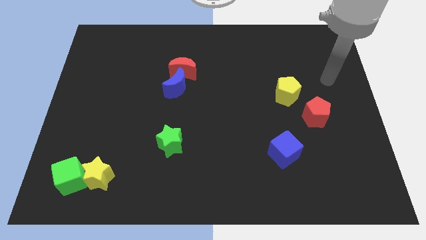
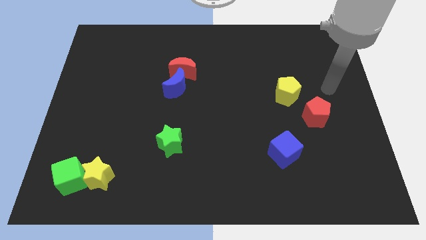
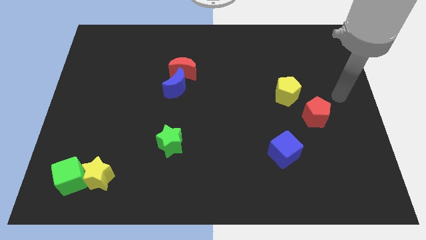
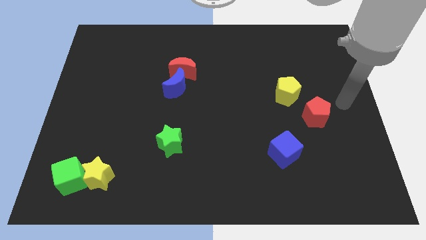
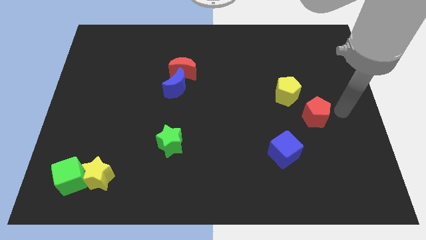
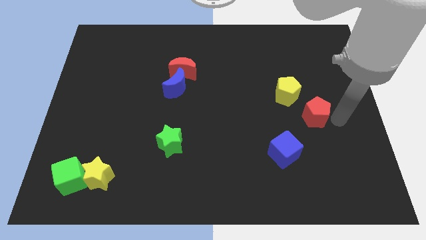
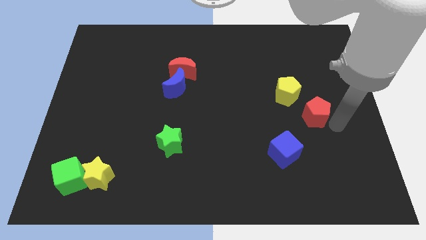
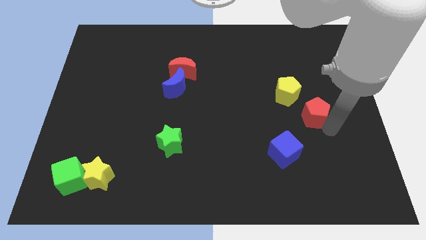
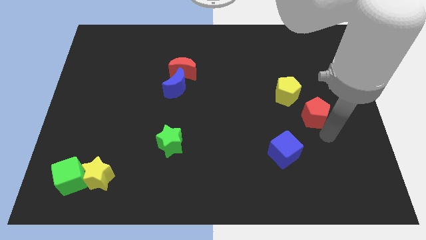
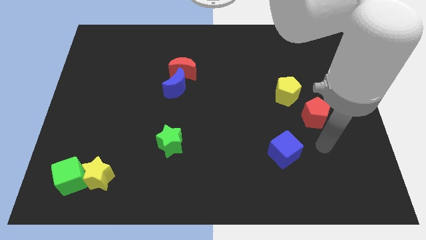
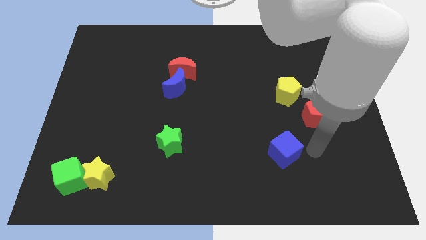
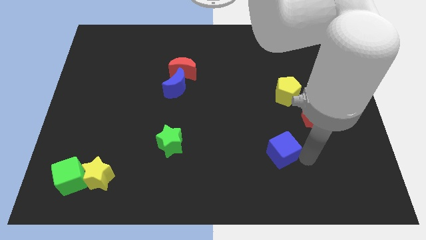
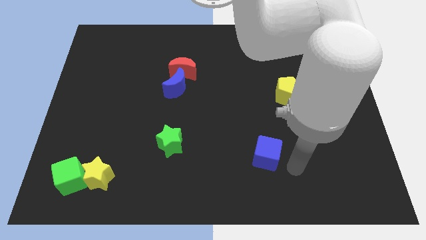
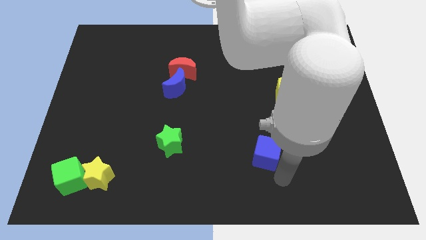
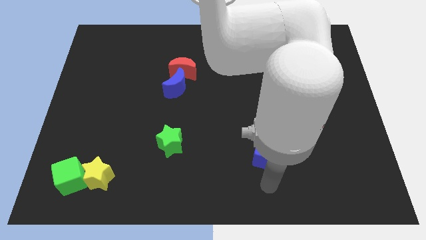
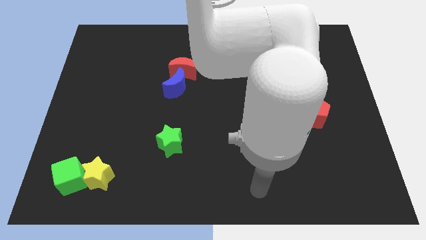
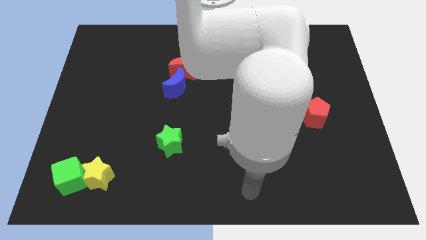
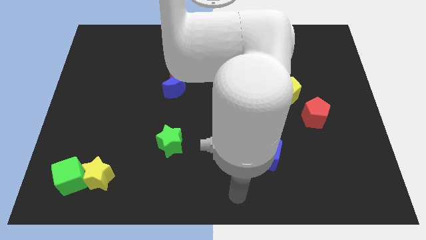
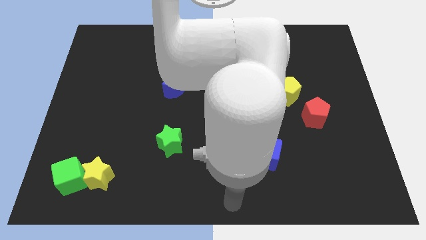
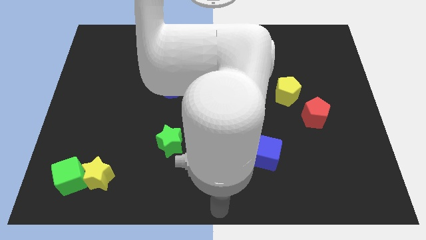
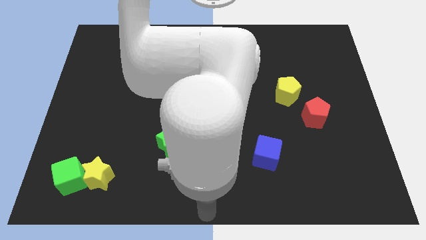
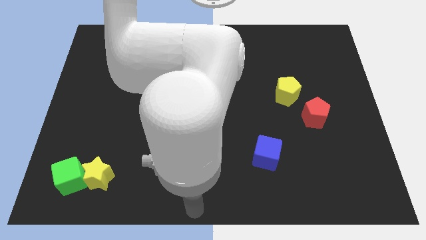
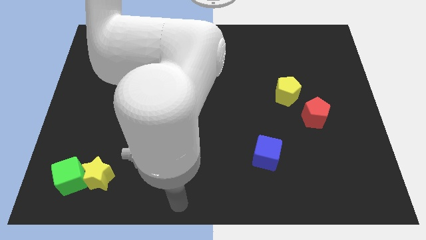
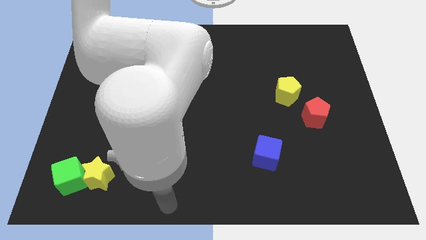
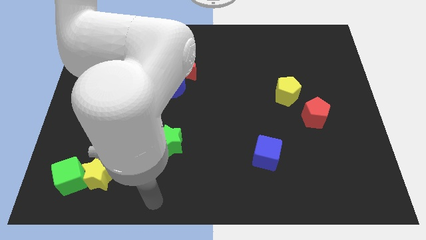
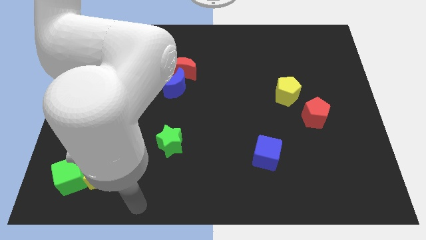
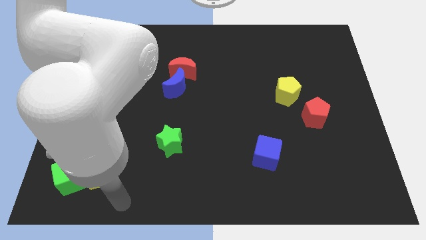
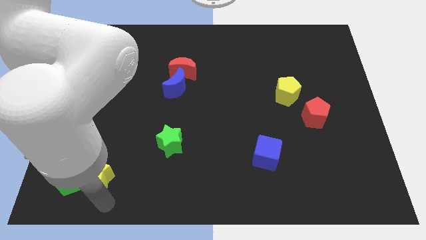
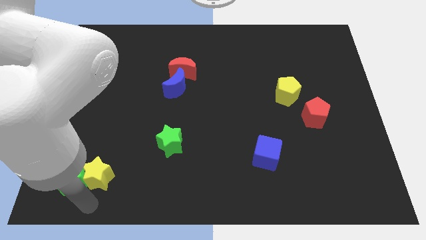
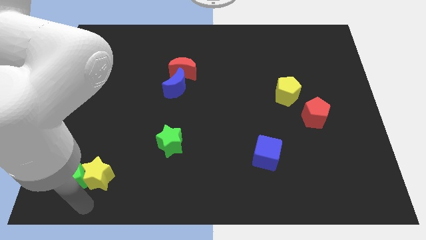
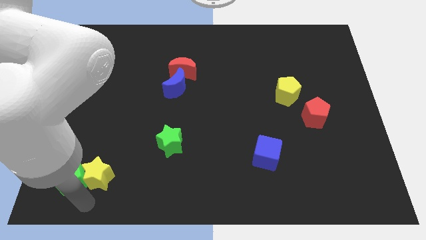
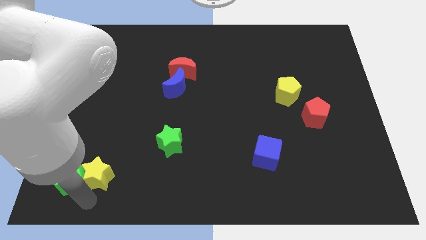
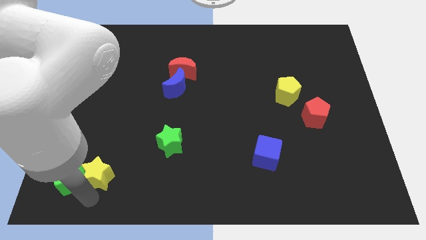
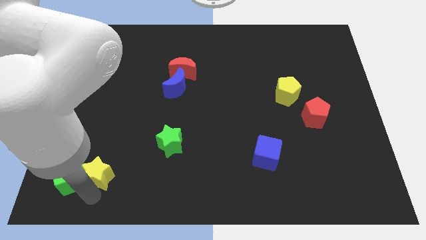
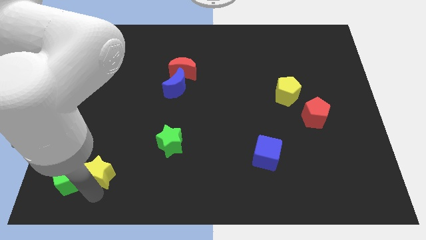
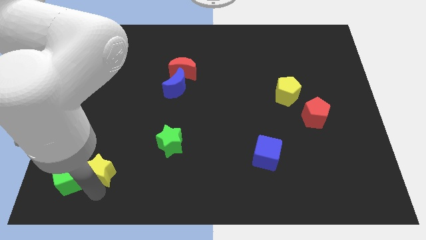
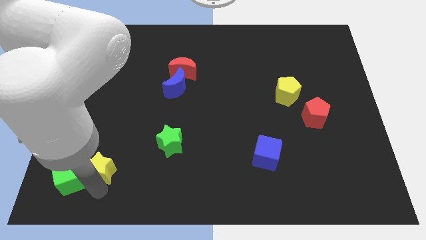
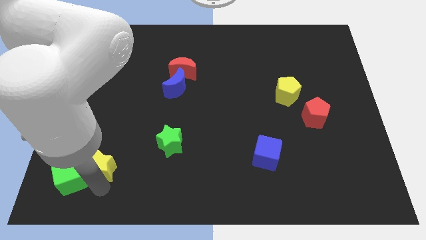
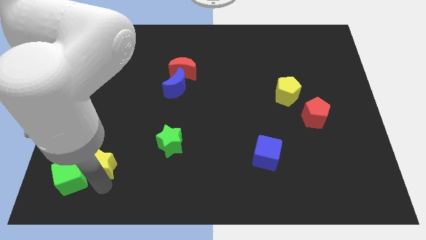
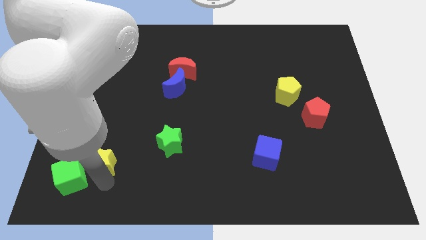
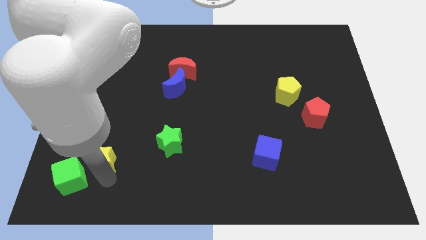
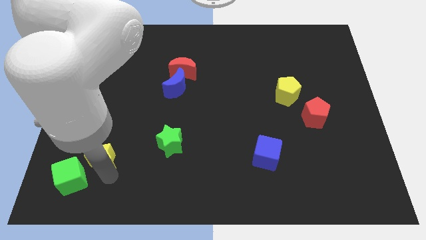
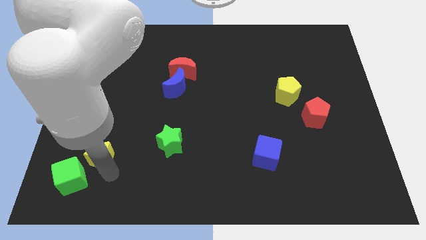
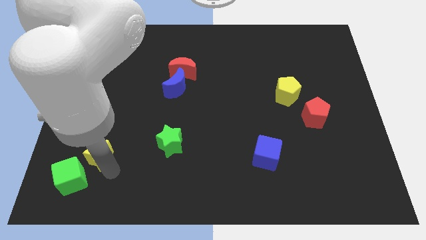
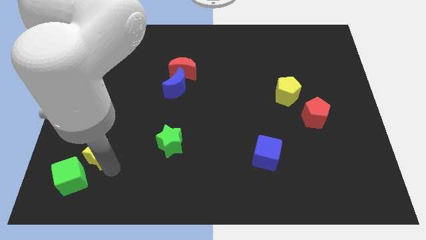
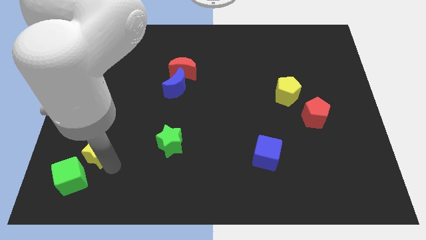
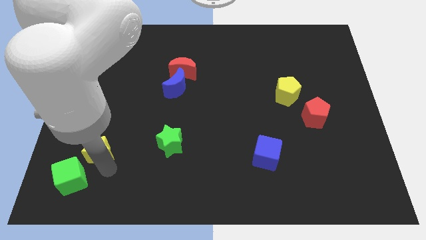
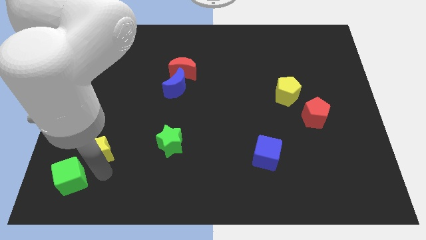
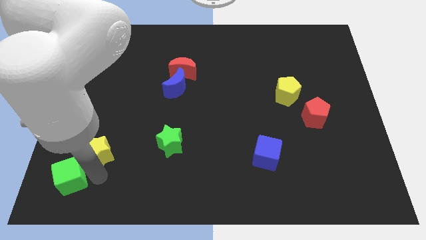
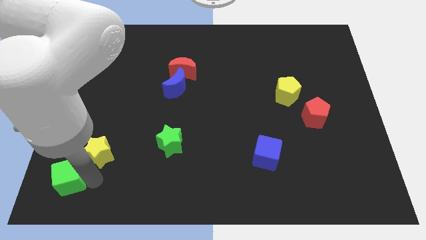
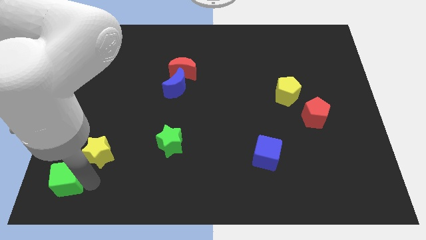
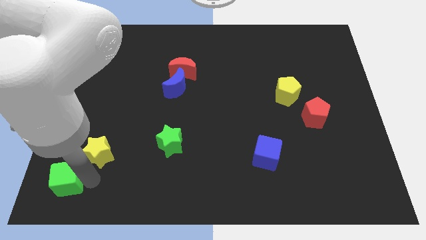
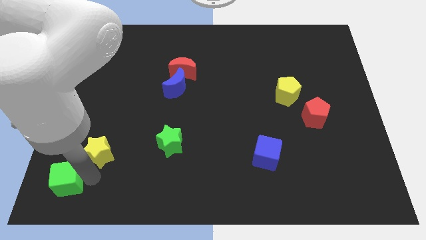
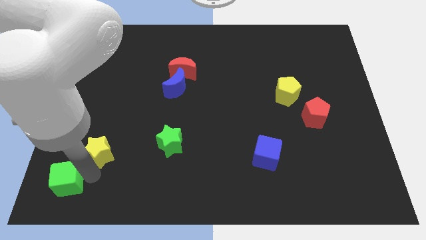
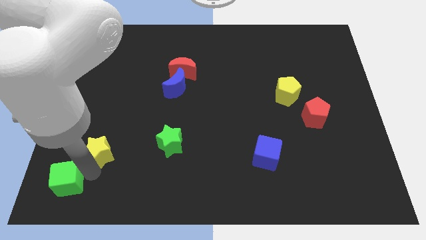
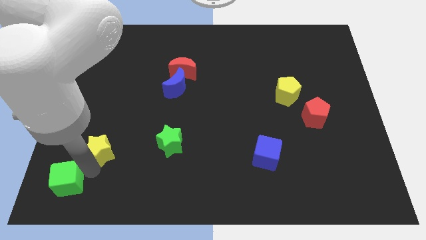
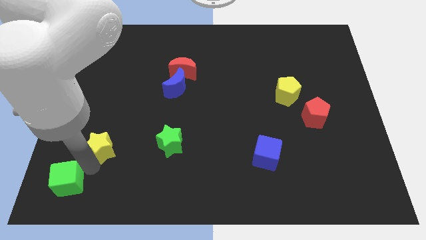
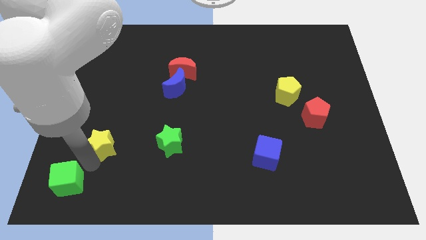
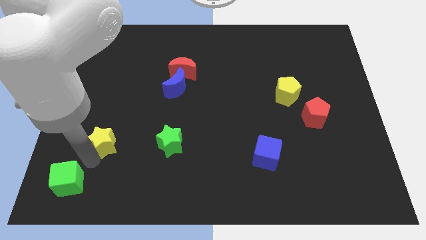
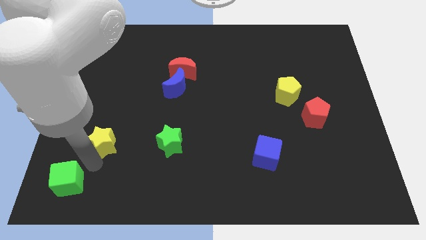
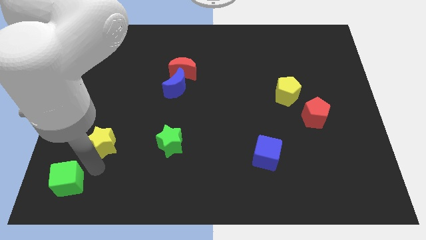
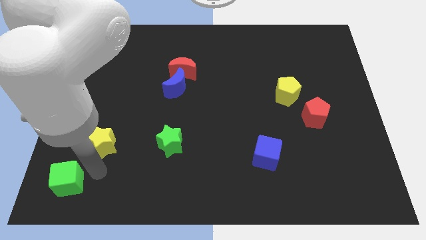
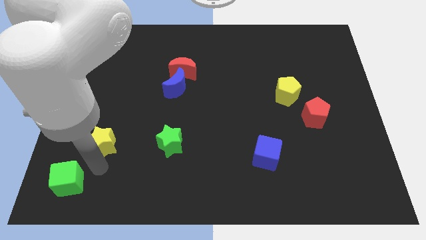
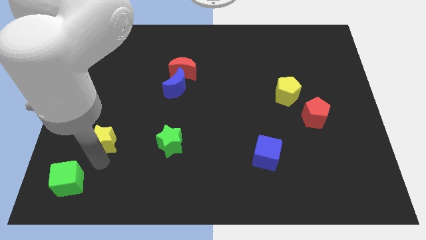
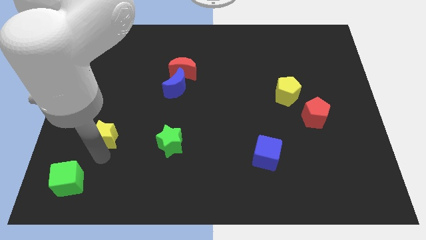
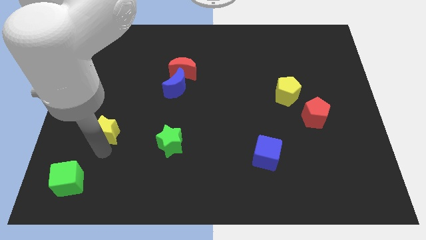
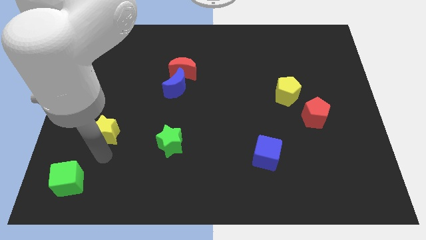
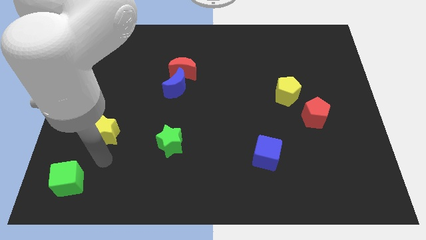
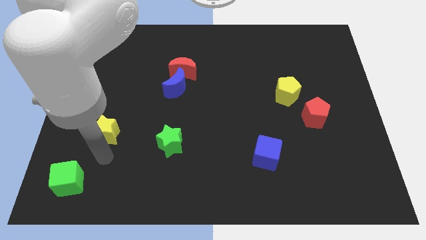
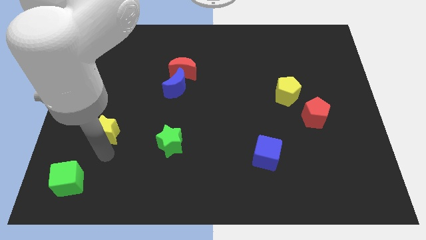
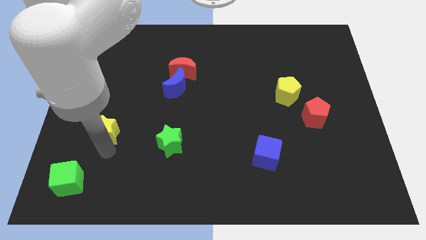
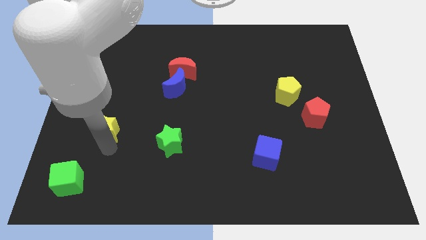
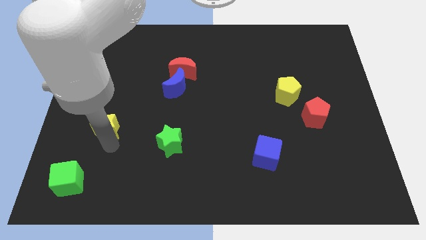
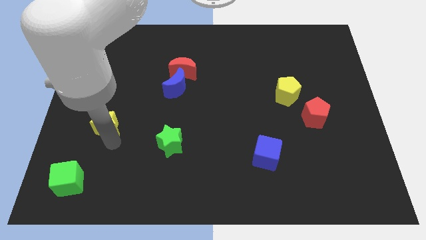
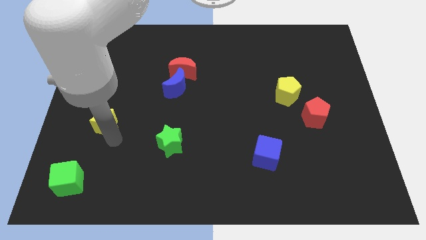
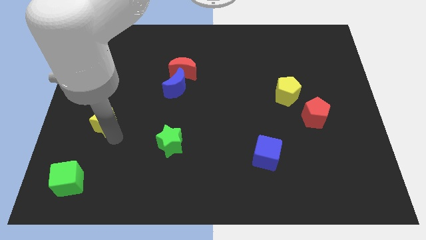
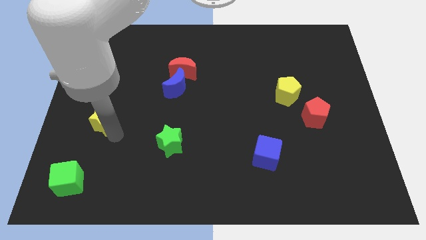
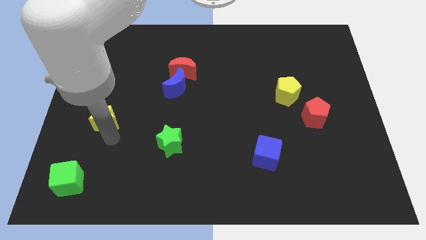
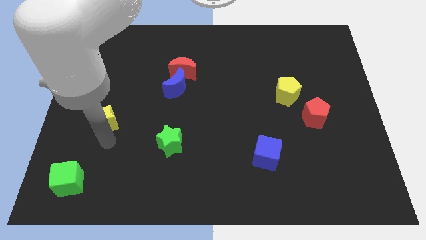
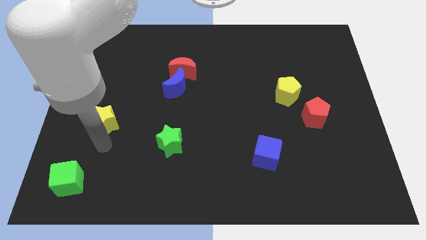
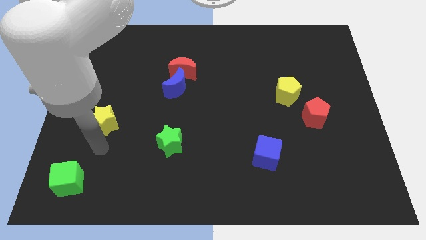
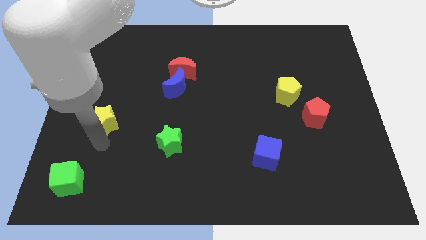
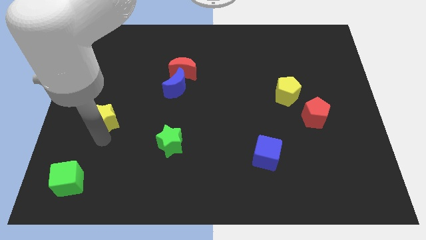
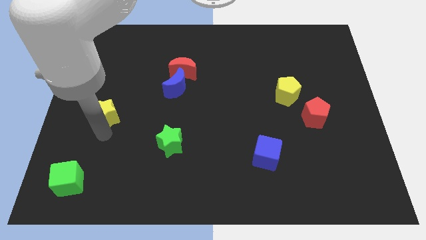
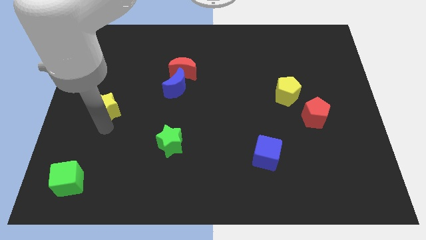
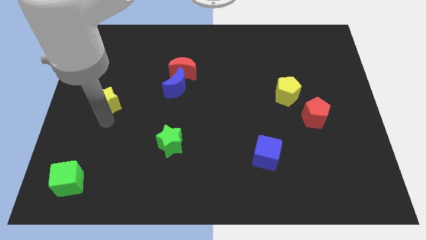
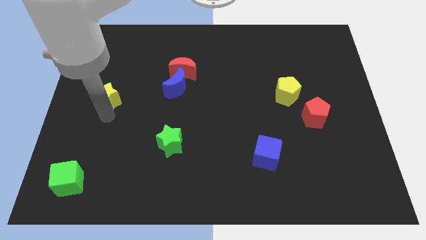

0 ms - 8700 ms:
push the yellow star upwards
